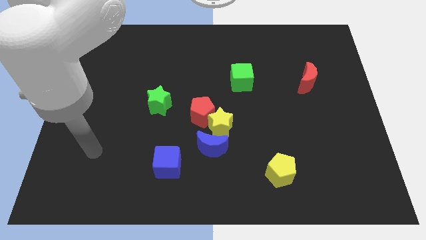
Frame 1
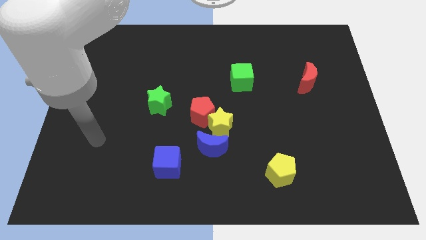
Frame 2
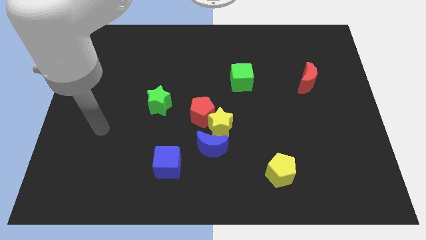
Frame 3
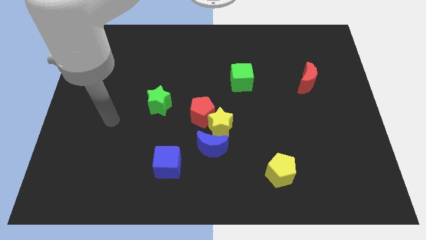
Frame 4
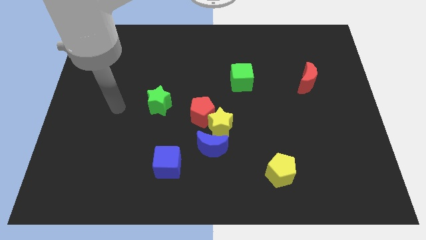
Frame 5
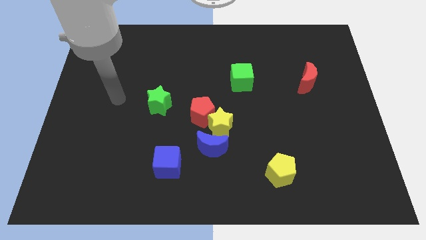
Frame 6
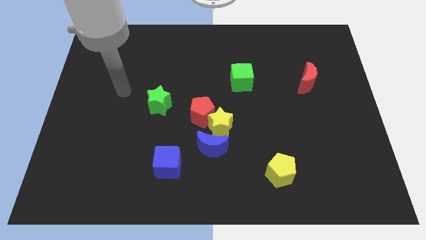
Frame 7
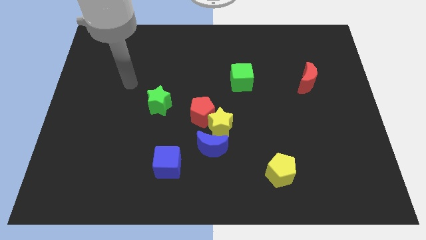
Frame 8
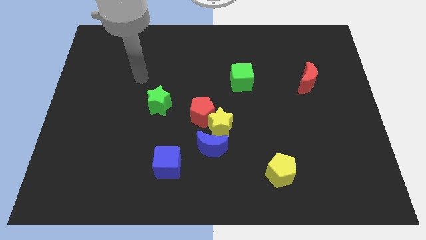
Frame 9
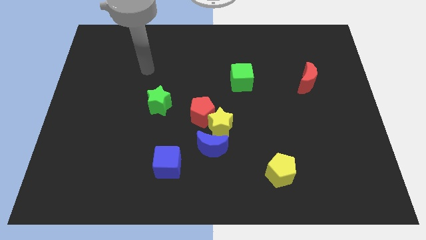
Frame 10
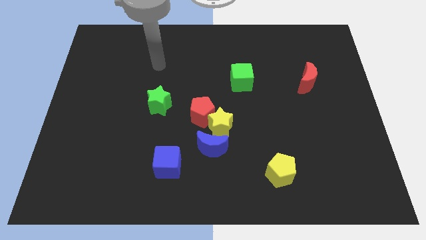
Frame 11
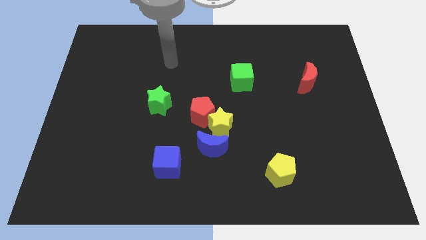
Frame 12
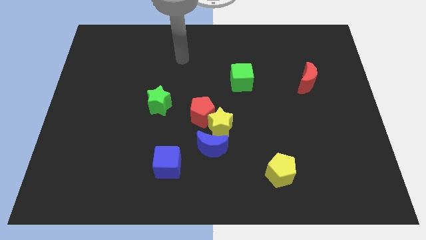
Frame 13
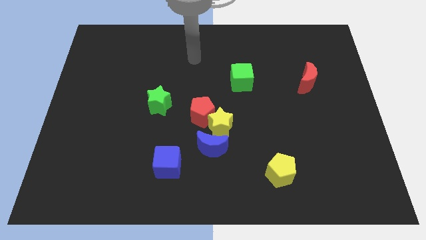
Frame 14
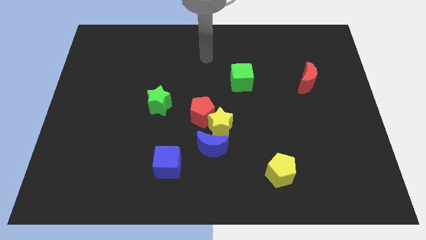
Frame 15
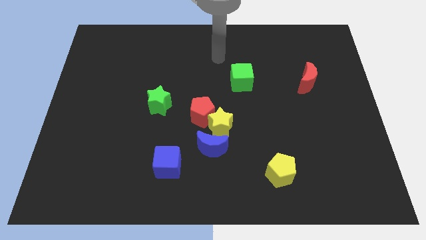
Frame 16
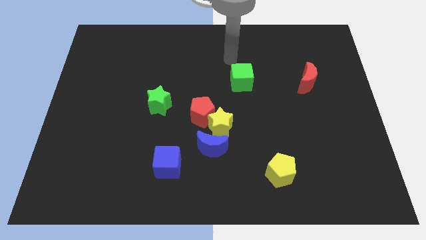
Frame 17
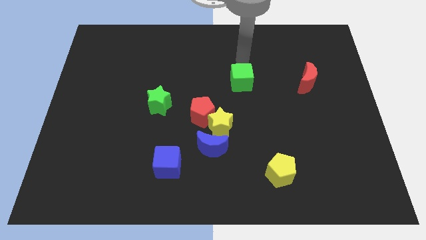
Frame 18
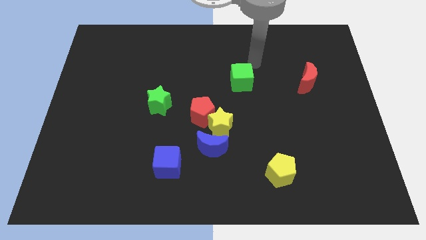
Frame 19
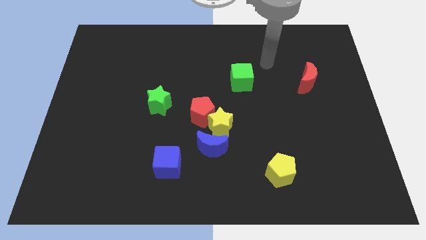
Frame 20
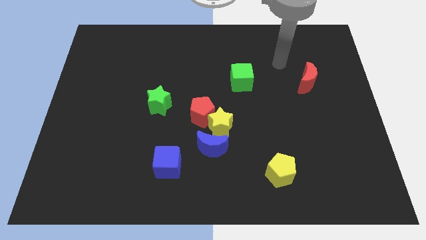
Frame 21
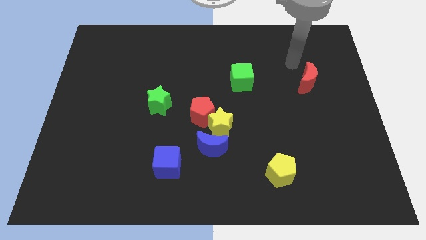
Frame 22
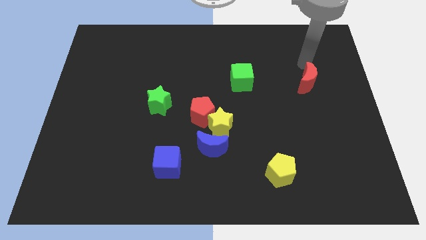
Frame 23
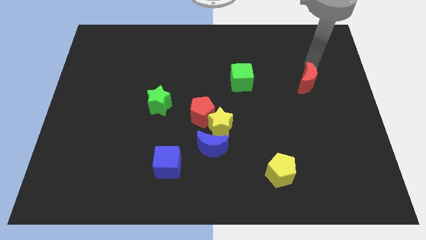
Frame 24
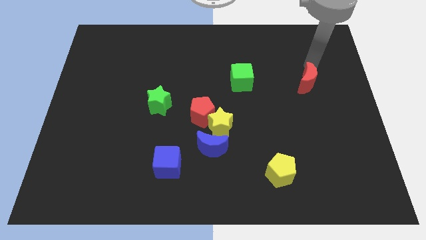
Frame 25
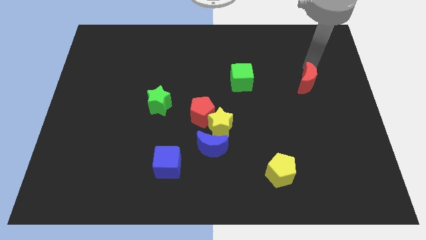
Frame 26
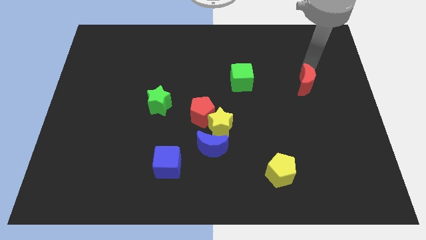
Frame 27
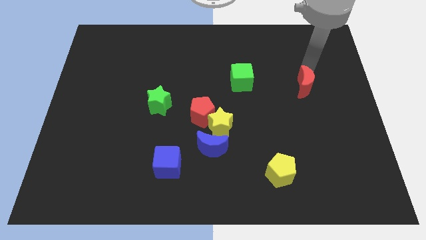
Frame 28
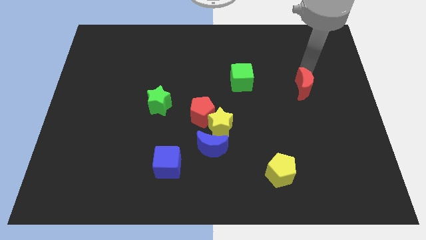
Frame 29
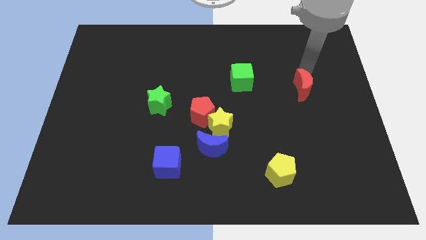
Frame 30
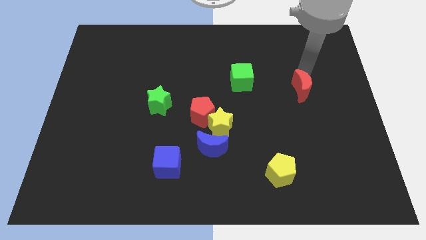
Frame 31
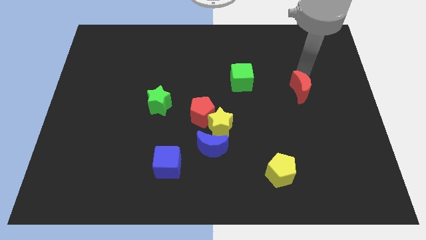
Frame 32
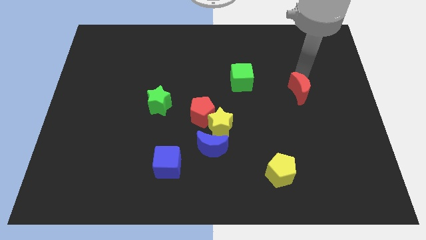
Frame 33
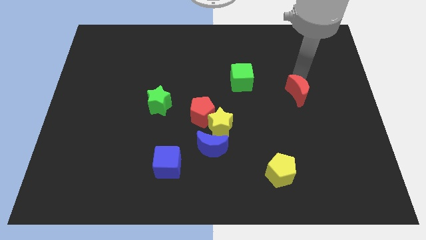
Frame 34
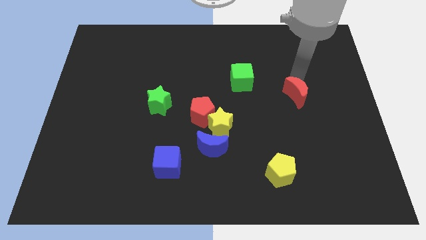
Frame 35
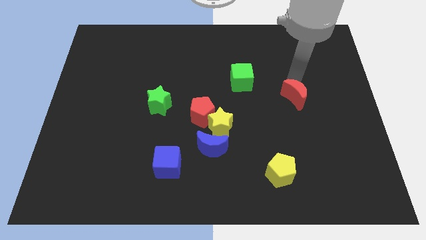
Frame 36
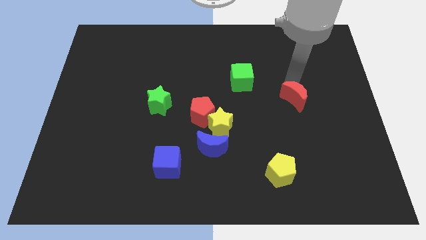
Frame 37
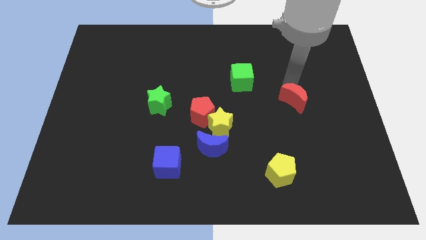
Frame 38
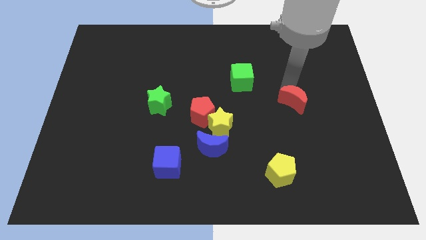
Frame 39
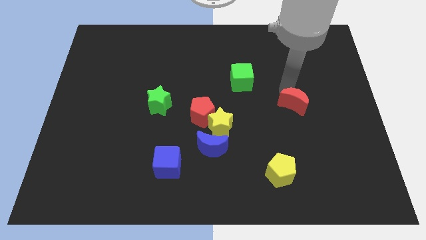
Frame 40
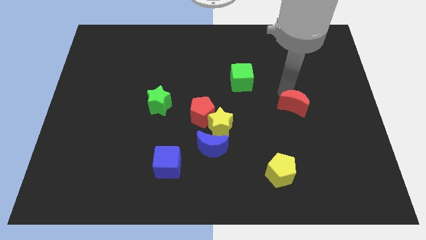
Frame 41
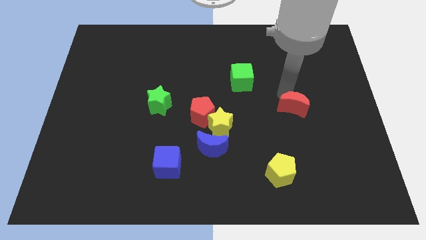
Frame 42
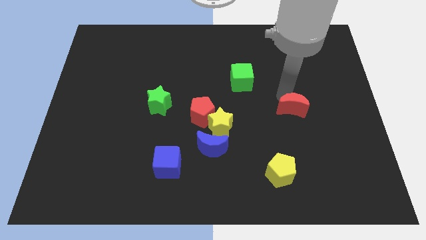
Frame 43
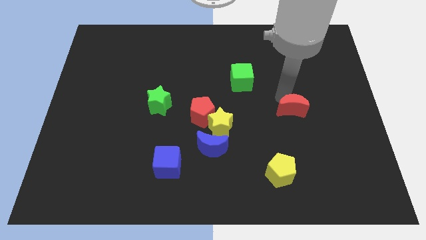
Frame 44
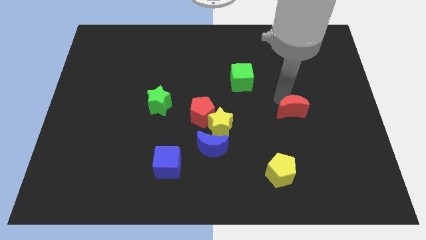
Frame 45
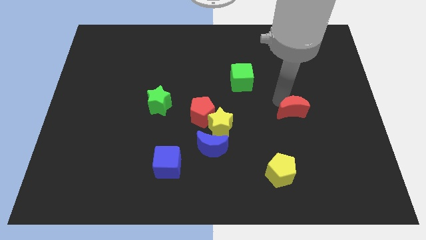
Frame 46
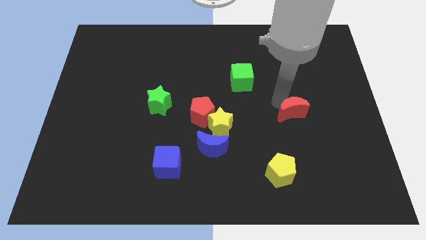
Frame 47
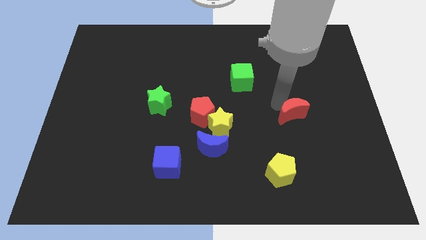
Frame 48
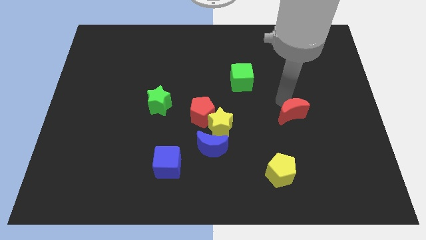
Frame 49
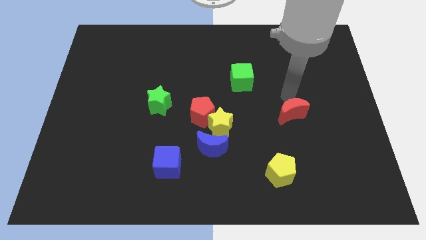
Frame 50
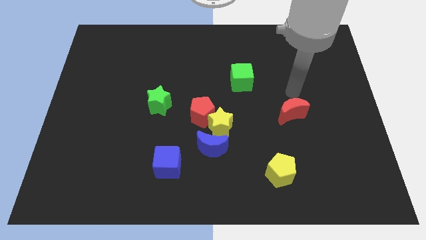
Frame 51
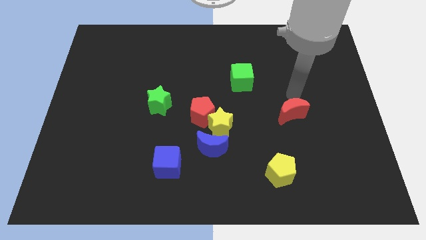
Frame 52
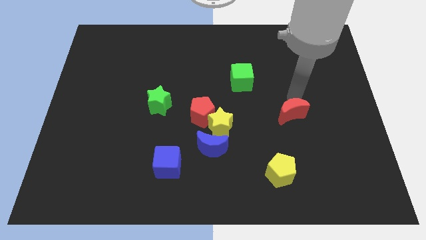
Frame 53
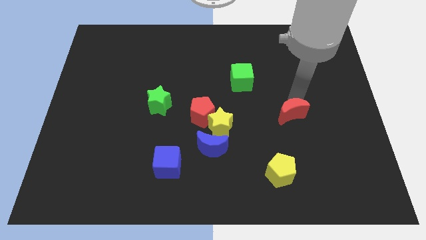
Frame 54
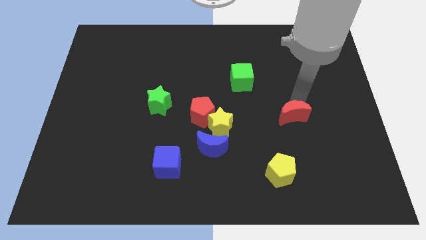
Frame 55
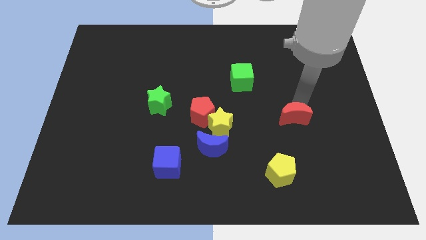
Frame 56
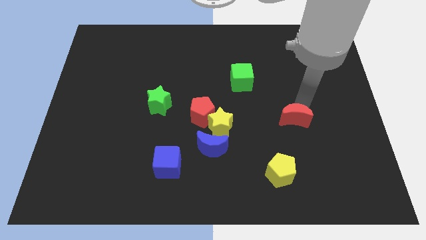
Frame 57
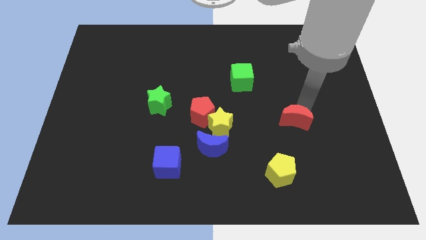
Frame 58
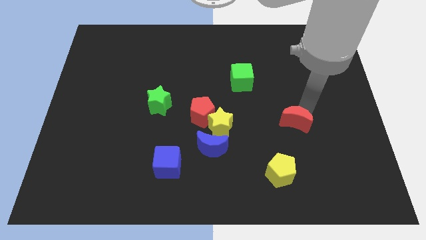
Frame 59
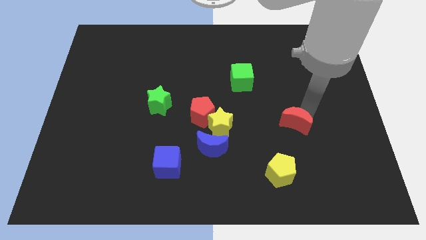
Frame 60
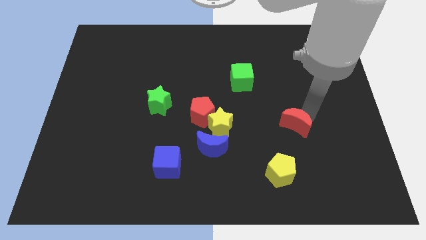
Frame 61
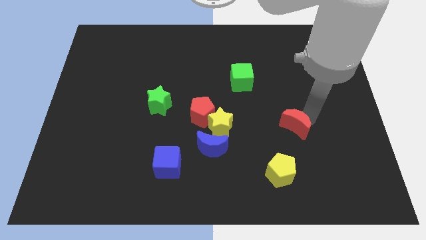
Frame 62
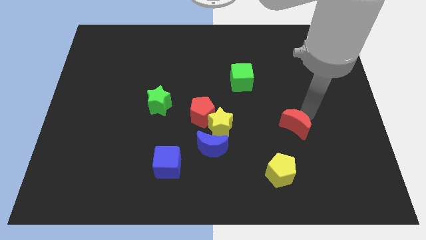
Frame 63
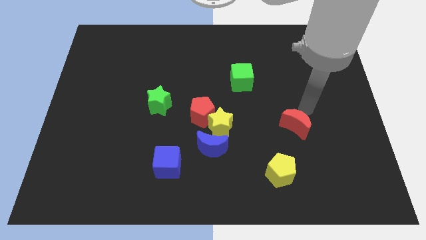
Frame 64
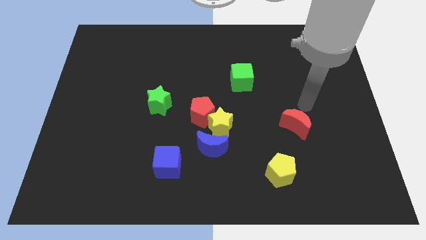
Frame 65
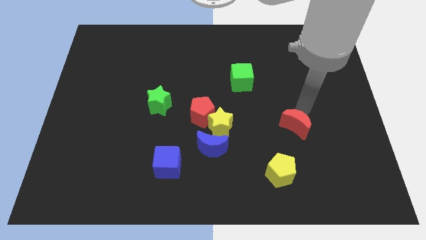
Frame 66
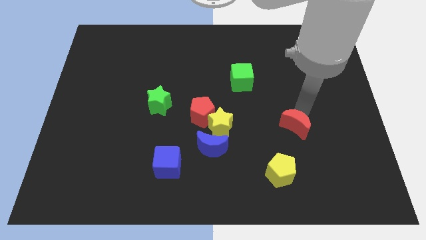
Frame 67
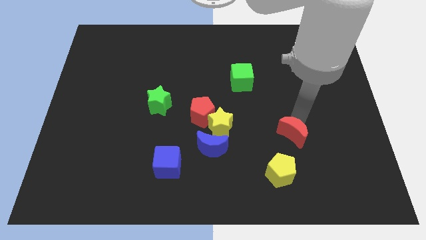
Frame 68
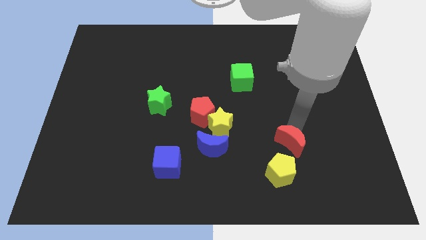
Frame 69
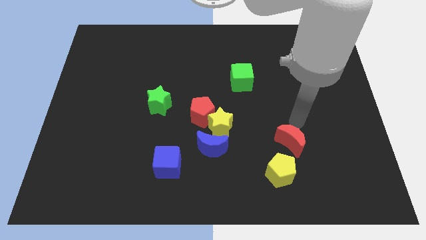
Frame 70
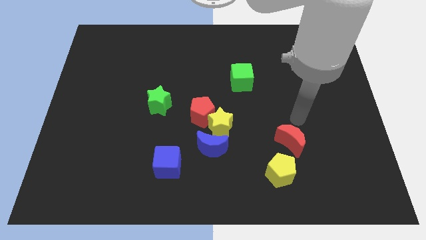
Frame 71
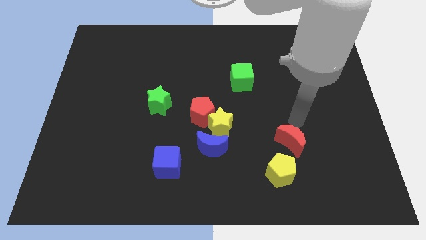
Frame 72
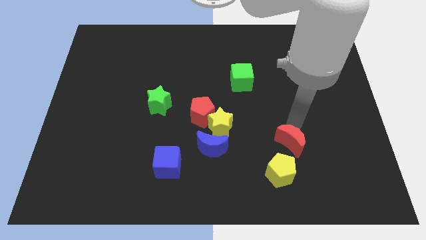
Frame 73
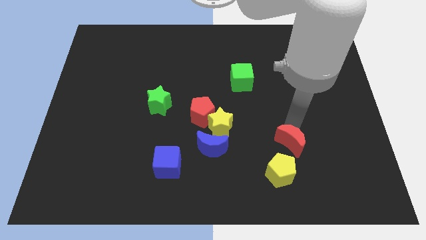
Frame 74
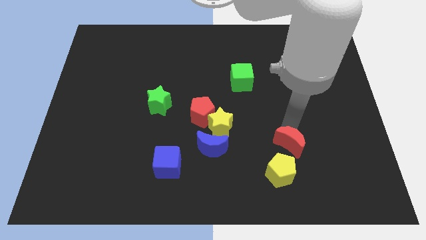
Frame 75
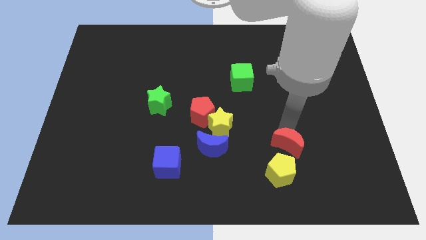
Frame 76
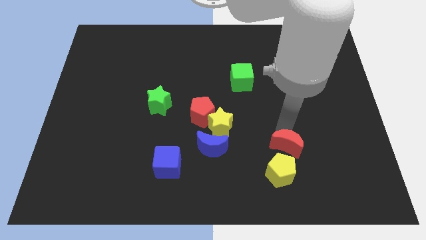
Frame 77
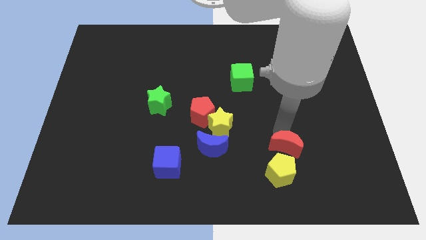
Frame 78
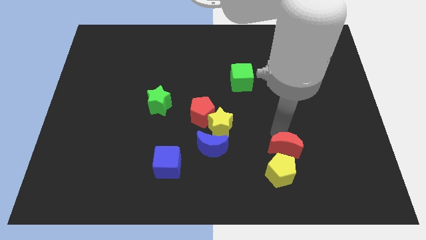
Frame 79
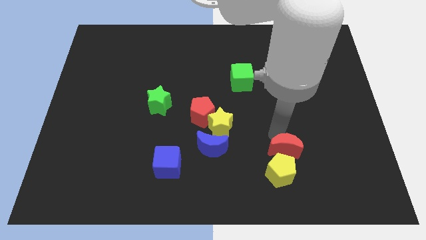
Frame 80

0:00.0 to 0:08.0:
slide the red moon close to the yellow pentagon
